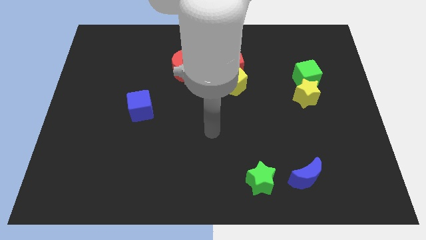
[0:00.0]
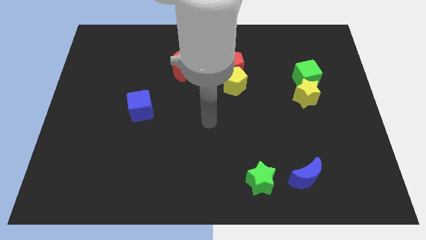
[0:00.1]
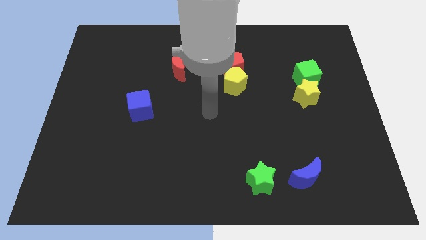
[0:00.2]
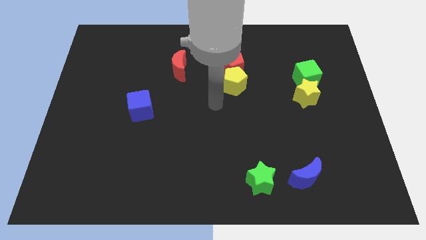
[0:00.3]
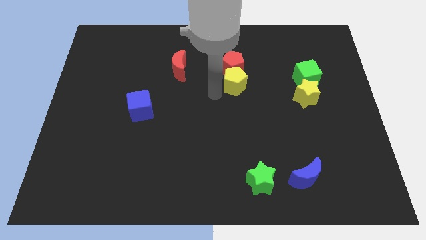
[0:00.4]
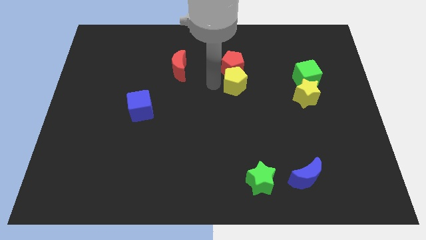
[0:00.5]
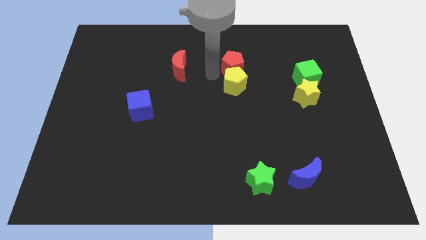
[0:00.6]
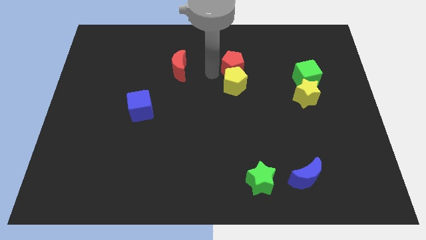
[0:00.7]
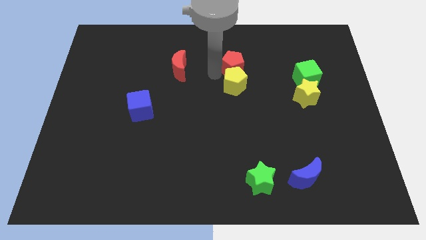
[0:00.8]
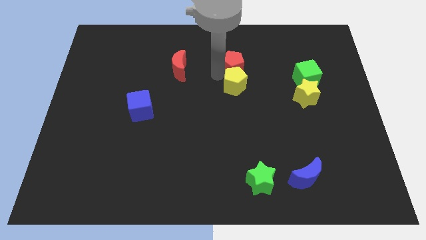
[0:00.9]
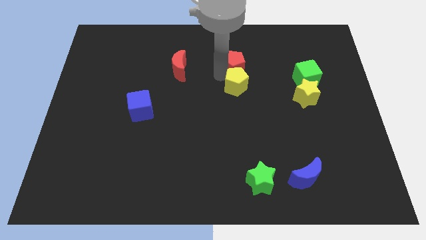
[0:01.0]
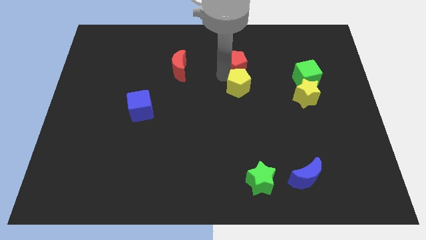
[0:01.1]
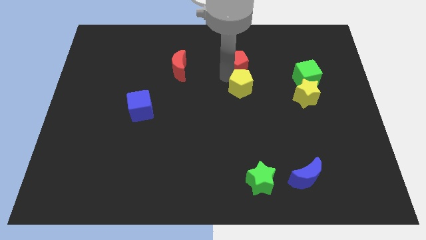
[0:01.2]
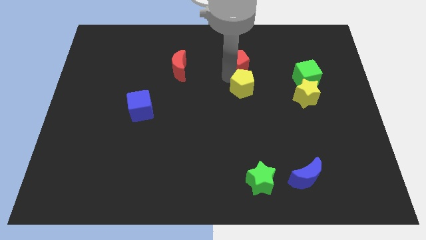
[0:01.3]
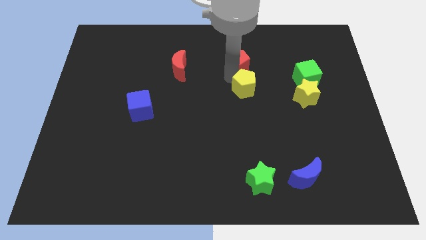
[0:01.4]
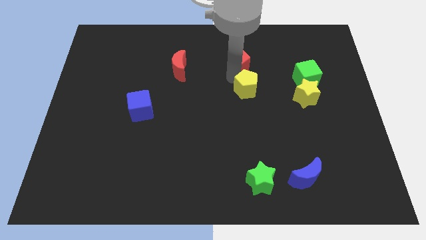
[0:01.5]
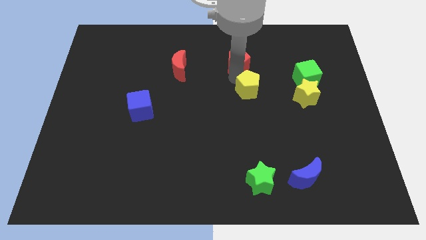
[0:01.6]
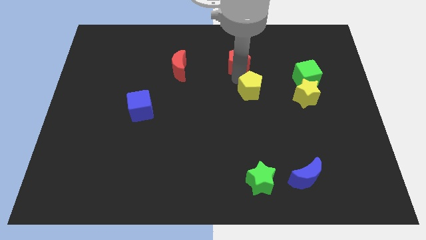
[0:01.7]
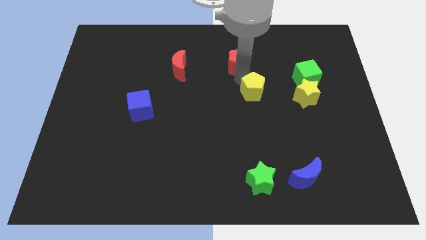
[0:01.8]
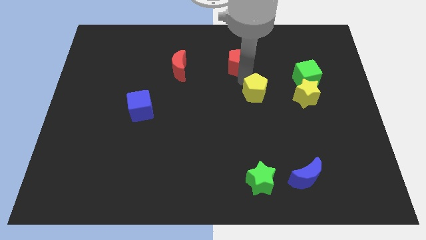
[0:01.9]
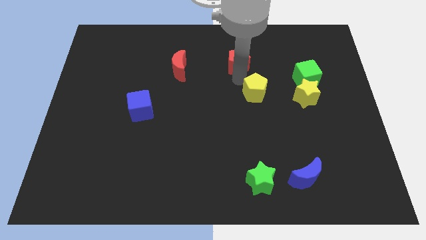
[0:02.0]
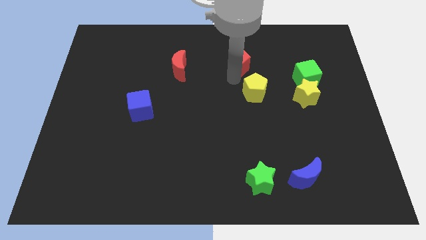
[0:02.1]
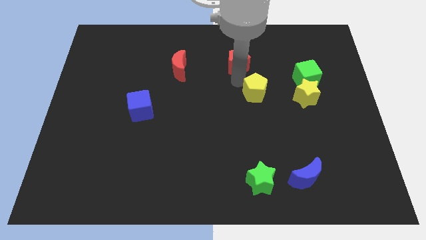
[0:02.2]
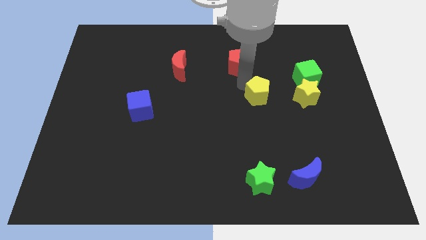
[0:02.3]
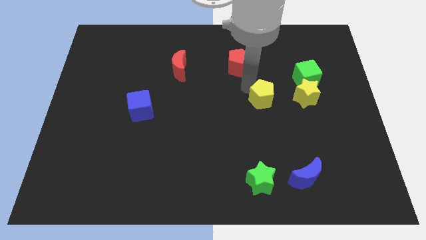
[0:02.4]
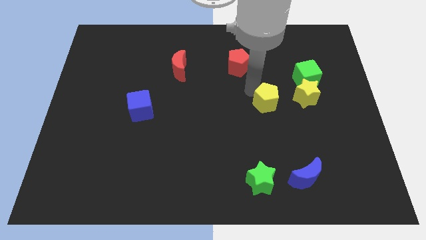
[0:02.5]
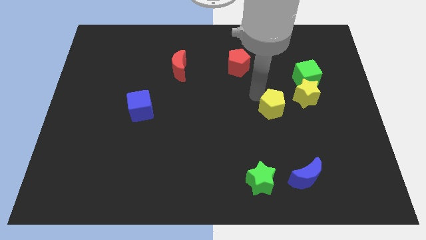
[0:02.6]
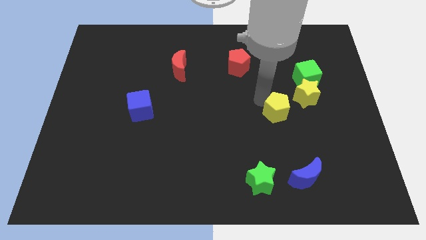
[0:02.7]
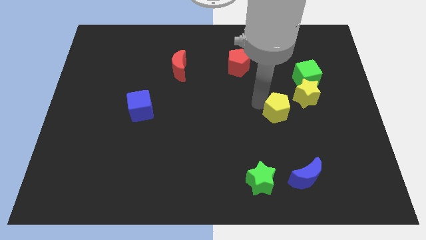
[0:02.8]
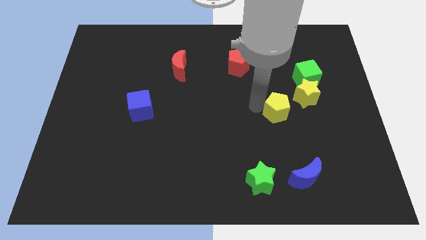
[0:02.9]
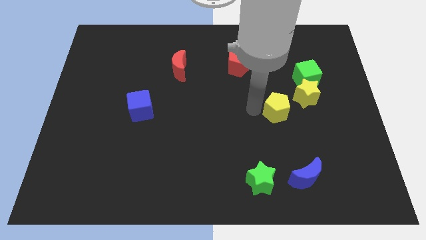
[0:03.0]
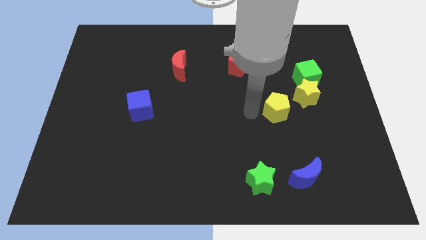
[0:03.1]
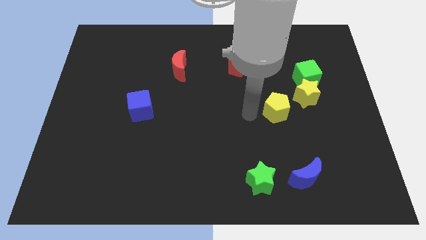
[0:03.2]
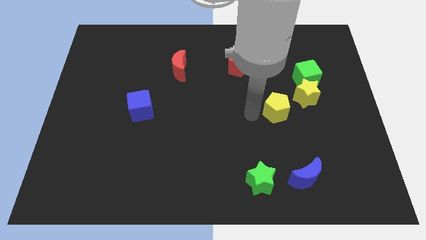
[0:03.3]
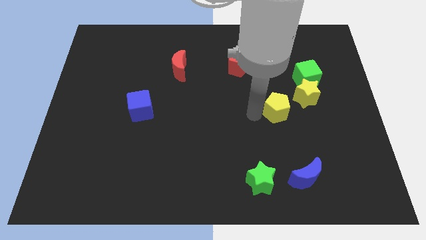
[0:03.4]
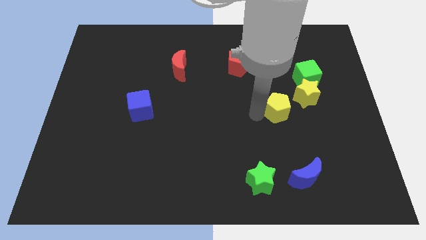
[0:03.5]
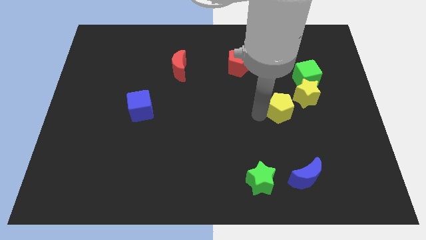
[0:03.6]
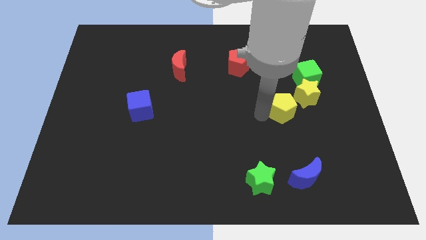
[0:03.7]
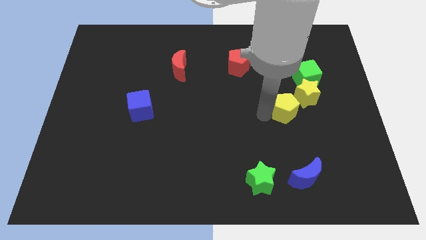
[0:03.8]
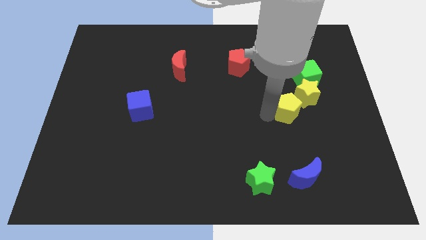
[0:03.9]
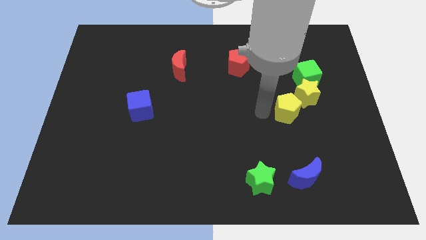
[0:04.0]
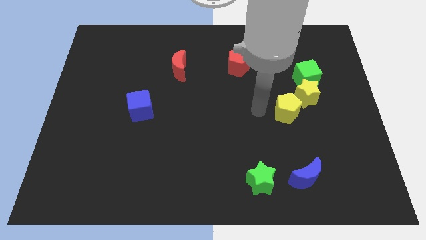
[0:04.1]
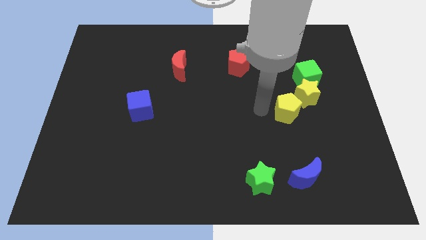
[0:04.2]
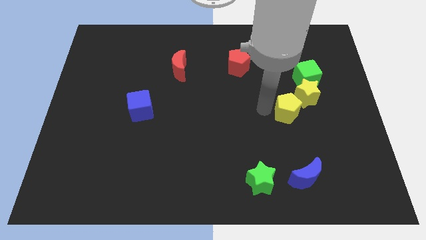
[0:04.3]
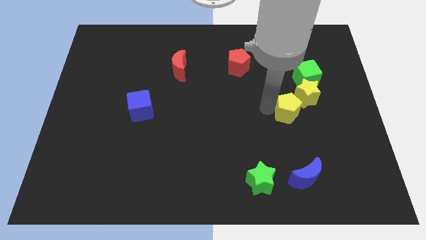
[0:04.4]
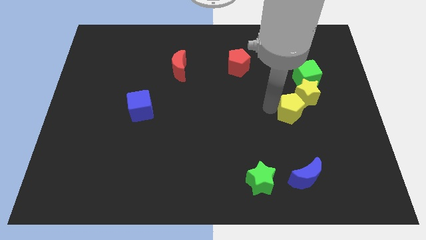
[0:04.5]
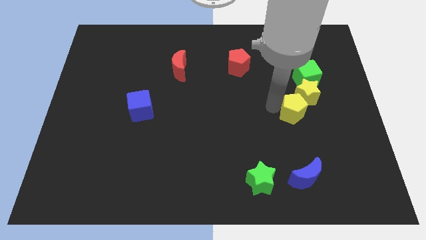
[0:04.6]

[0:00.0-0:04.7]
put the yellow pentagon to the bottom side of the green cube

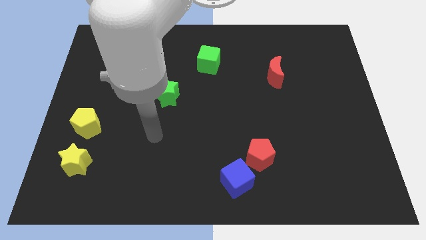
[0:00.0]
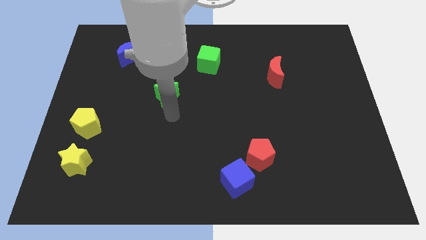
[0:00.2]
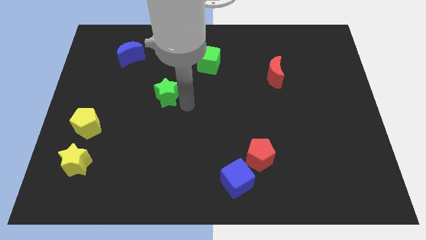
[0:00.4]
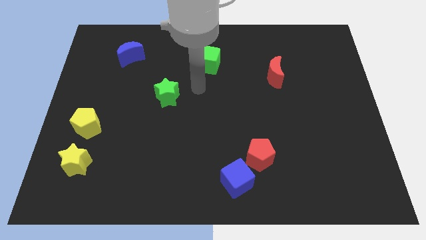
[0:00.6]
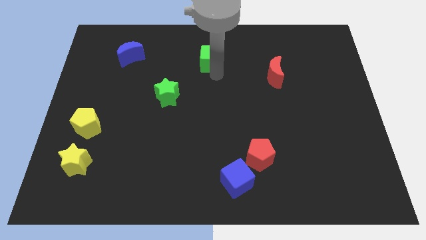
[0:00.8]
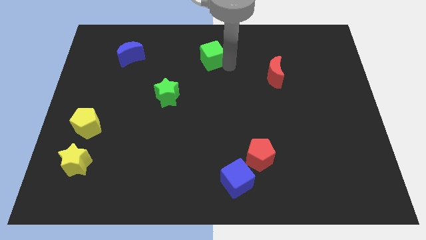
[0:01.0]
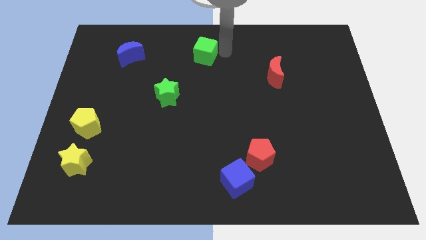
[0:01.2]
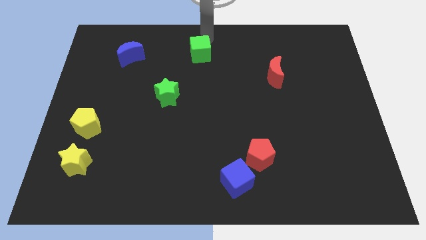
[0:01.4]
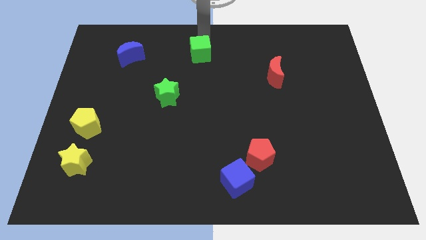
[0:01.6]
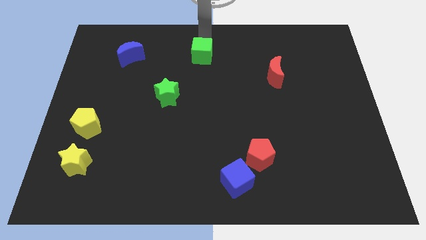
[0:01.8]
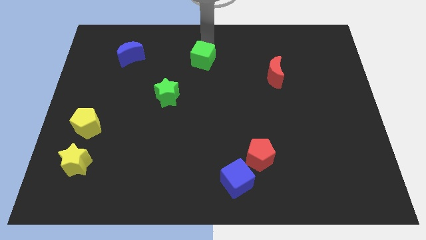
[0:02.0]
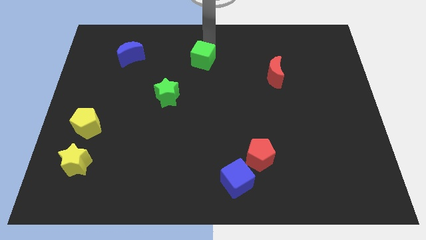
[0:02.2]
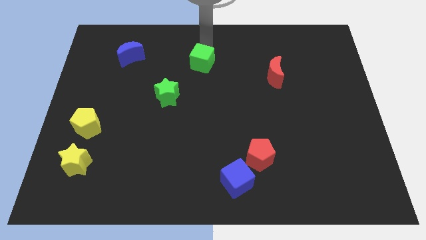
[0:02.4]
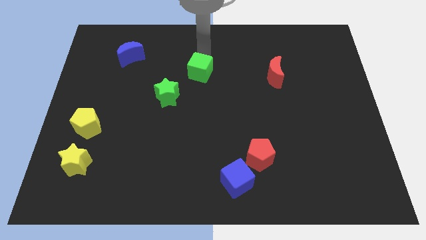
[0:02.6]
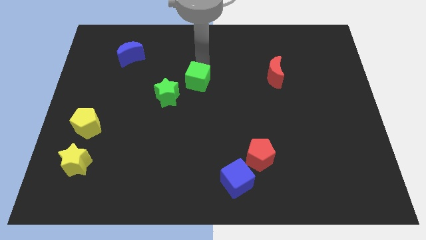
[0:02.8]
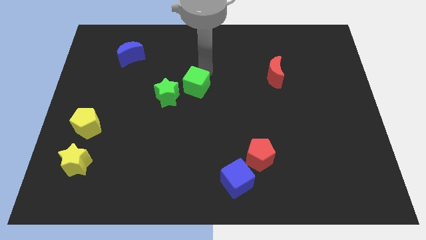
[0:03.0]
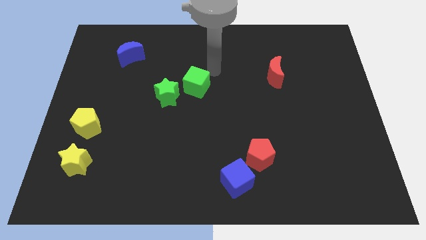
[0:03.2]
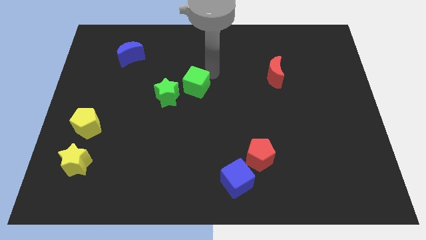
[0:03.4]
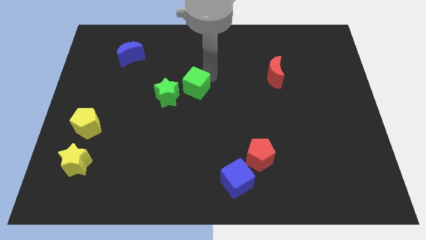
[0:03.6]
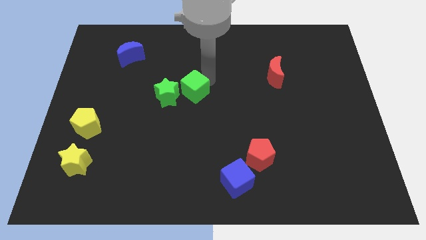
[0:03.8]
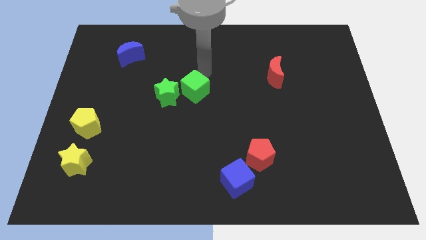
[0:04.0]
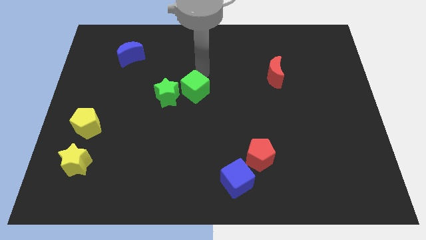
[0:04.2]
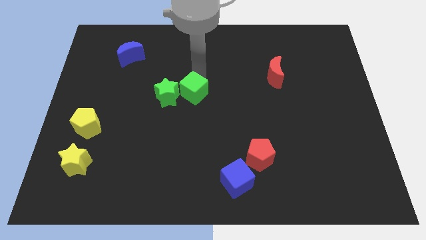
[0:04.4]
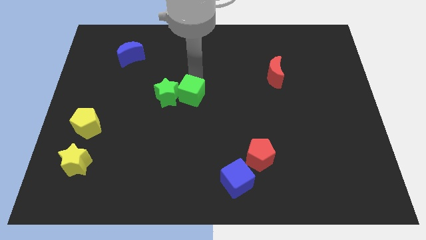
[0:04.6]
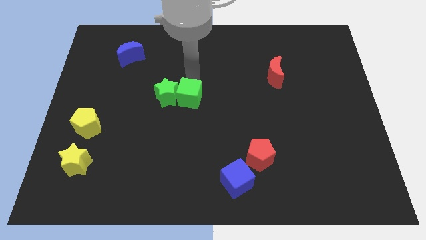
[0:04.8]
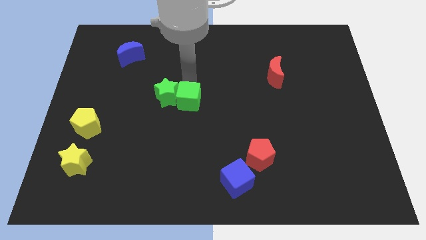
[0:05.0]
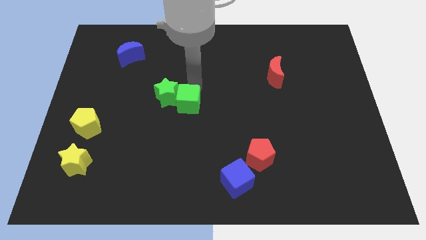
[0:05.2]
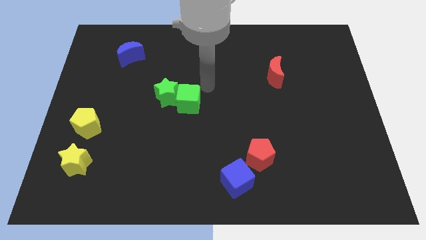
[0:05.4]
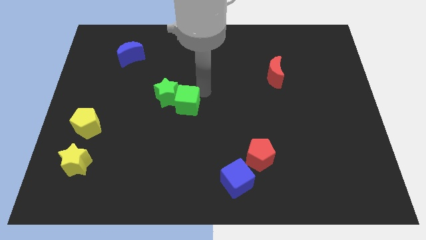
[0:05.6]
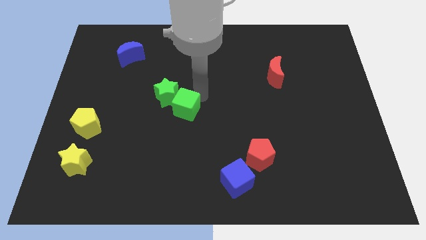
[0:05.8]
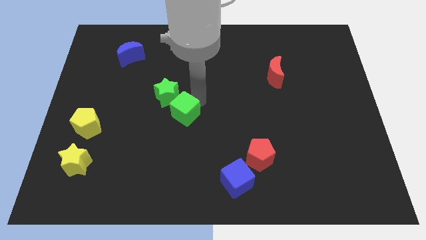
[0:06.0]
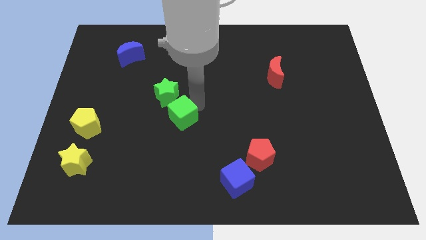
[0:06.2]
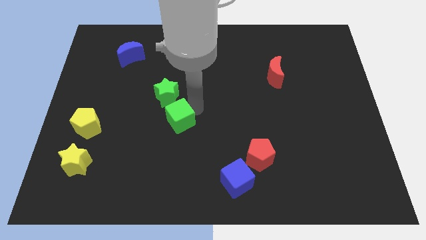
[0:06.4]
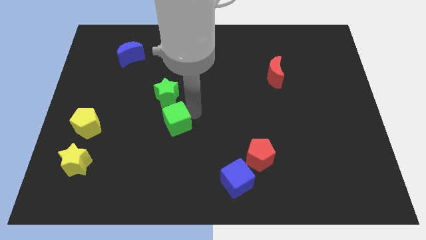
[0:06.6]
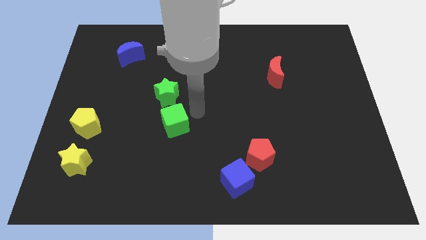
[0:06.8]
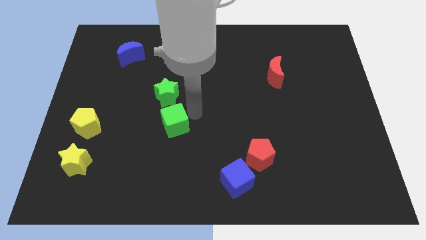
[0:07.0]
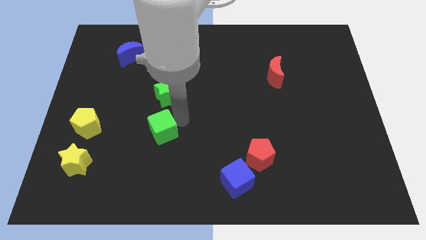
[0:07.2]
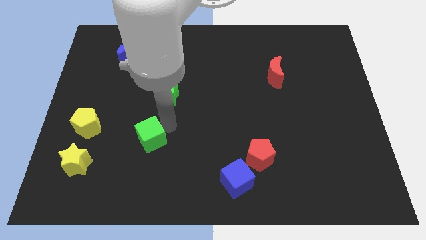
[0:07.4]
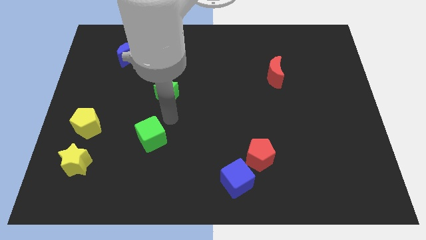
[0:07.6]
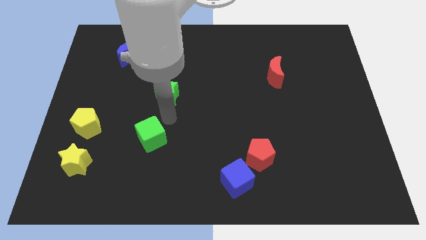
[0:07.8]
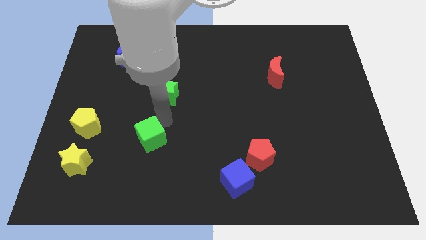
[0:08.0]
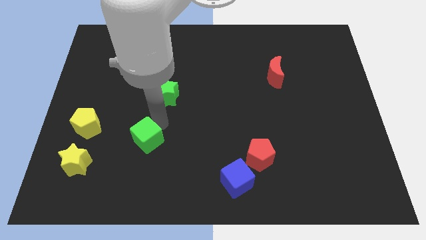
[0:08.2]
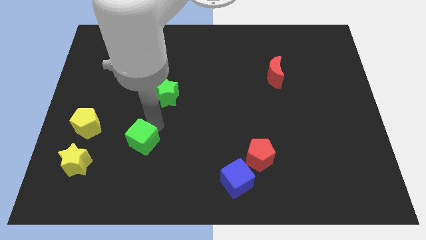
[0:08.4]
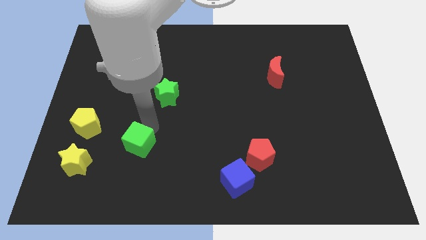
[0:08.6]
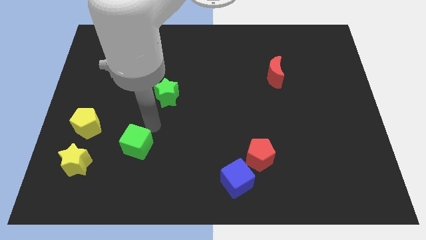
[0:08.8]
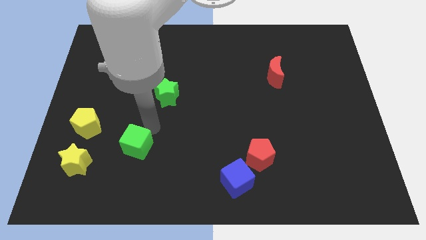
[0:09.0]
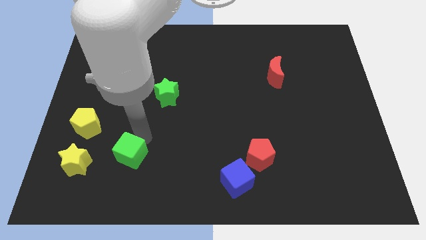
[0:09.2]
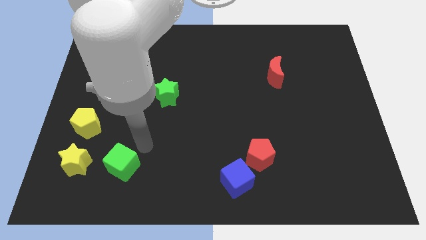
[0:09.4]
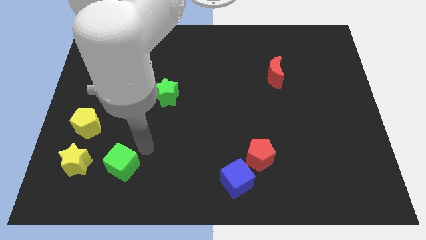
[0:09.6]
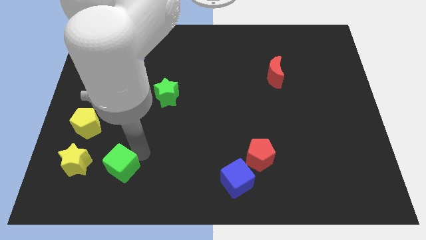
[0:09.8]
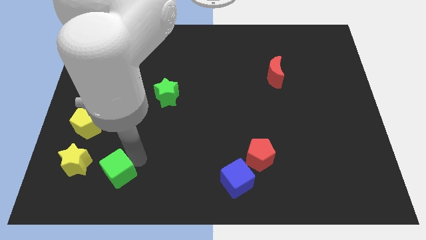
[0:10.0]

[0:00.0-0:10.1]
move the green cube to the bottom right of the yellow star
